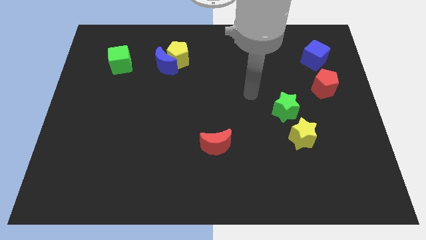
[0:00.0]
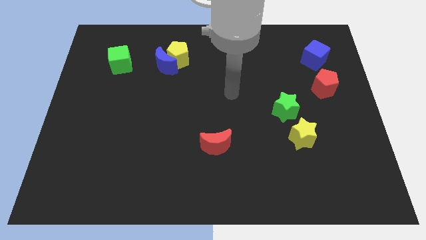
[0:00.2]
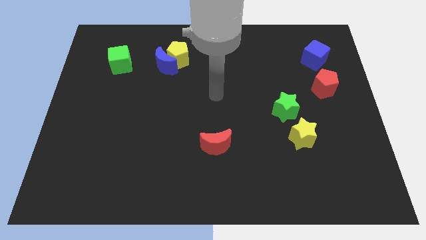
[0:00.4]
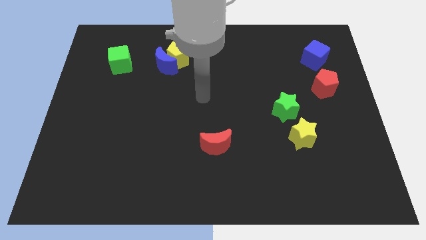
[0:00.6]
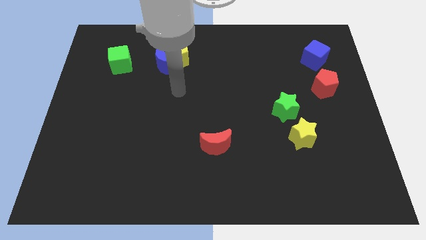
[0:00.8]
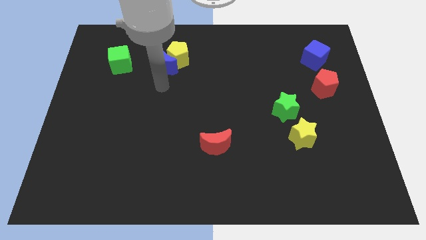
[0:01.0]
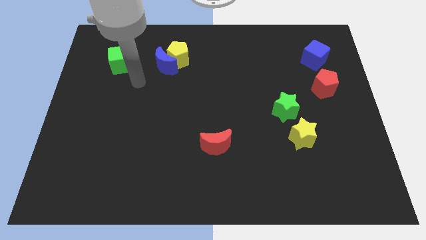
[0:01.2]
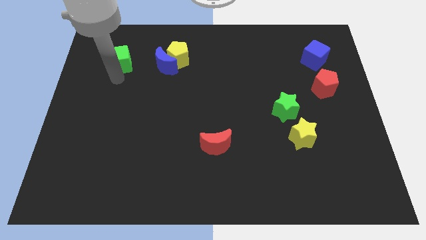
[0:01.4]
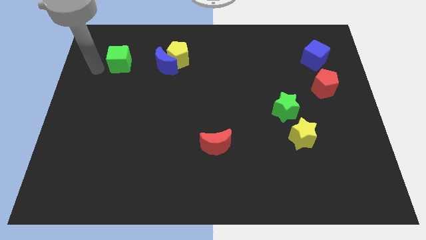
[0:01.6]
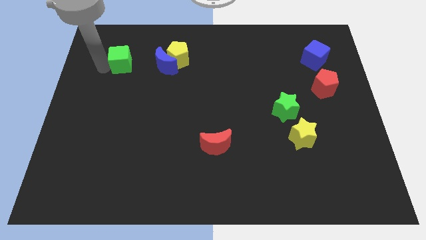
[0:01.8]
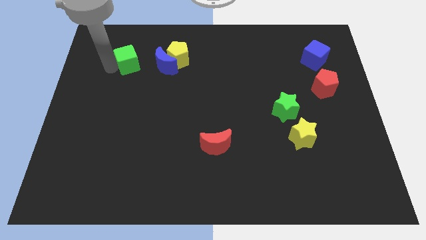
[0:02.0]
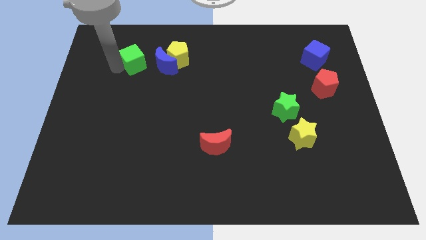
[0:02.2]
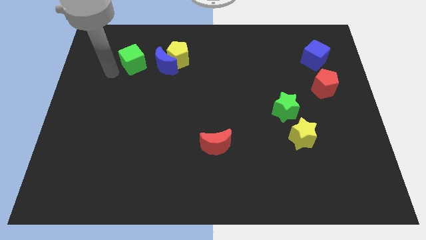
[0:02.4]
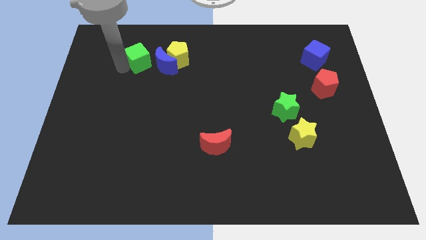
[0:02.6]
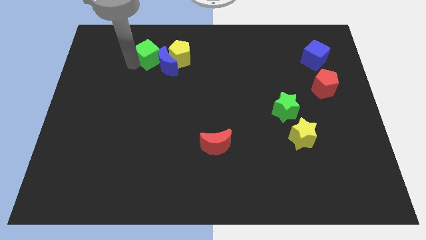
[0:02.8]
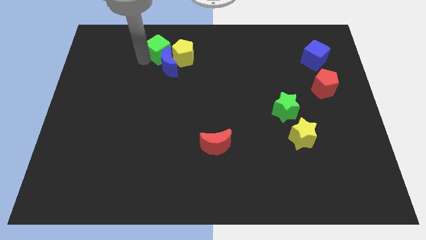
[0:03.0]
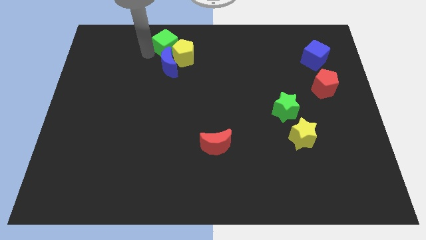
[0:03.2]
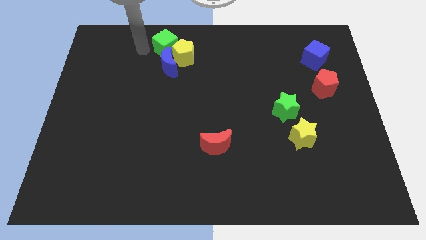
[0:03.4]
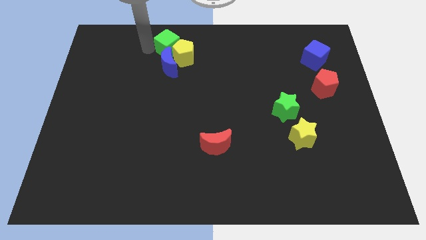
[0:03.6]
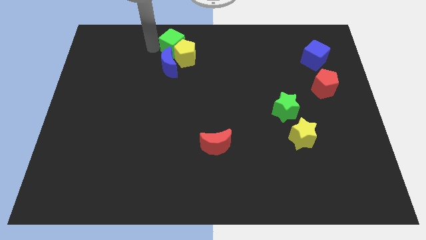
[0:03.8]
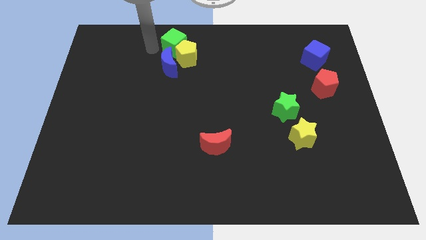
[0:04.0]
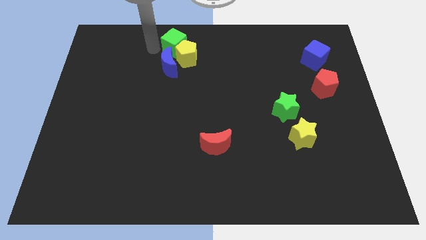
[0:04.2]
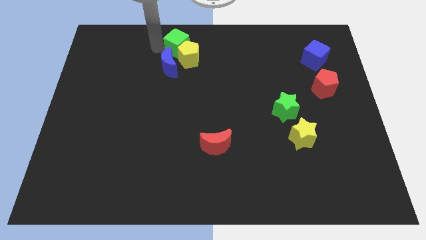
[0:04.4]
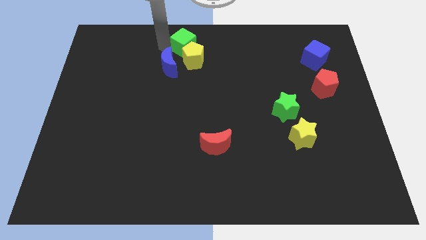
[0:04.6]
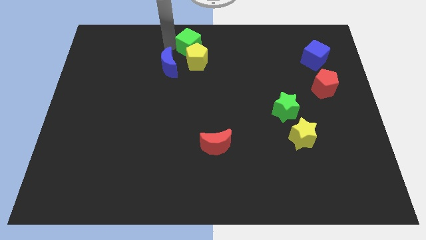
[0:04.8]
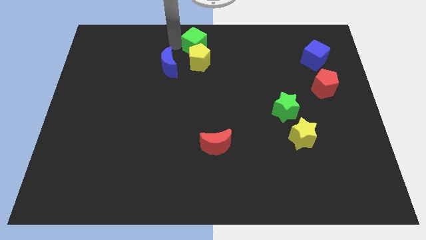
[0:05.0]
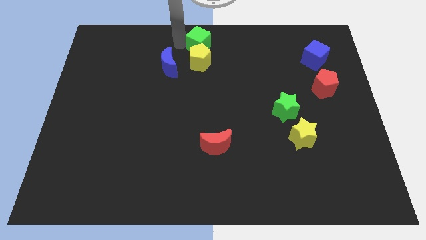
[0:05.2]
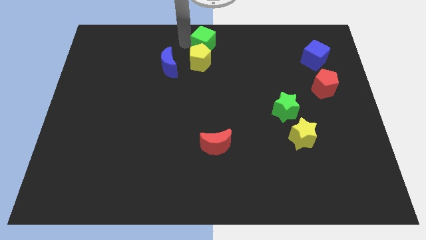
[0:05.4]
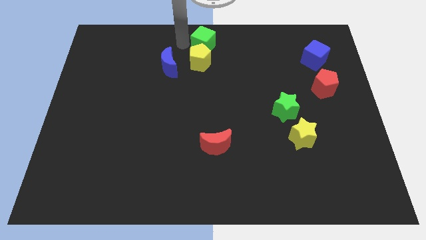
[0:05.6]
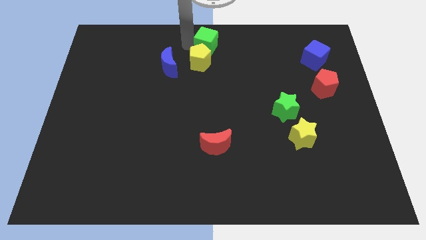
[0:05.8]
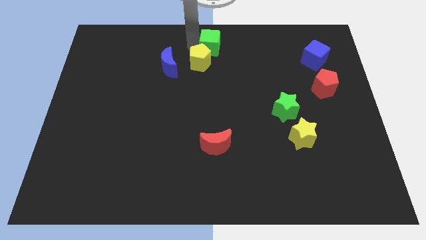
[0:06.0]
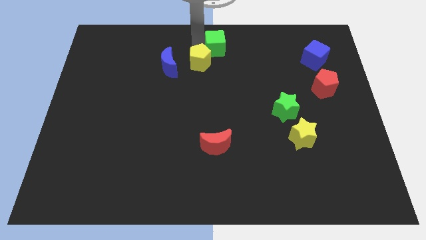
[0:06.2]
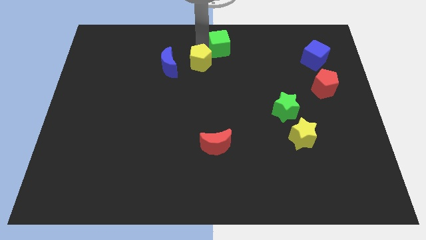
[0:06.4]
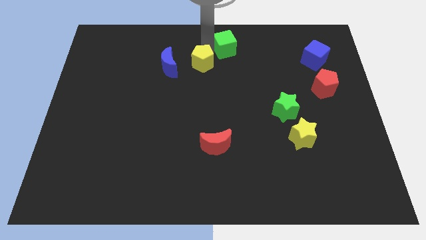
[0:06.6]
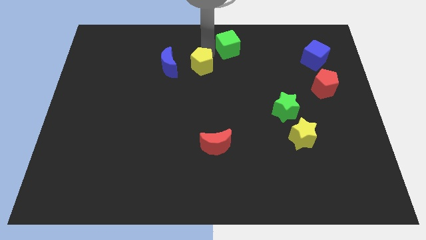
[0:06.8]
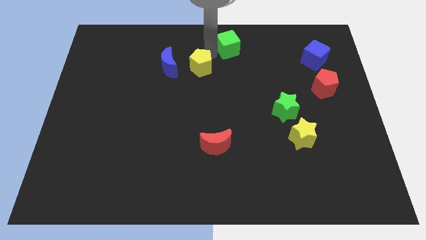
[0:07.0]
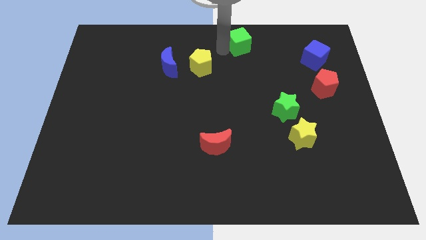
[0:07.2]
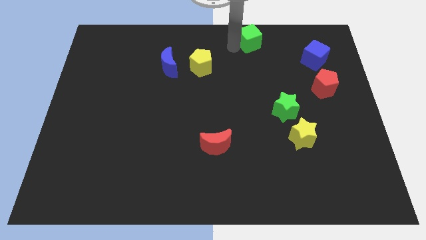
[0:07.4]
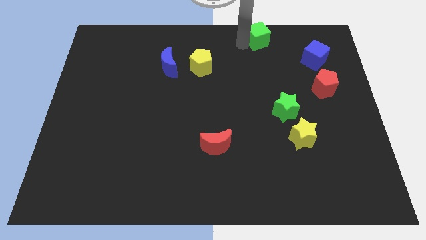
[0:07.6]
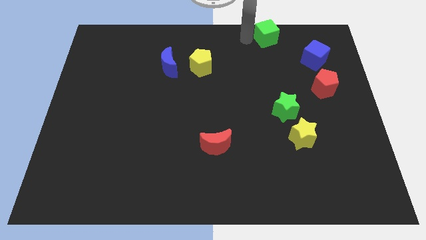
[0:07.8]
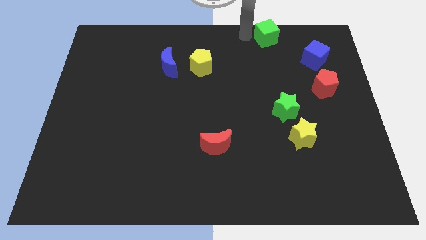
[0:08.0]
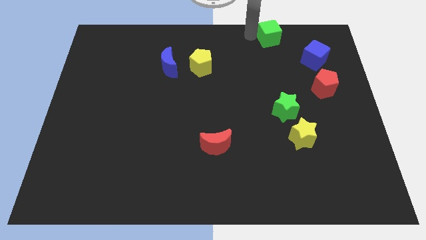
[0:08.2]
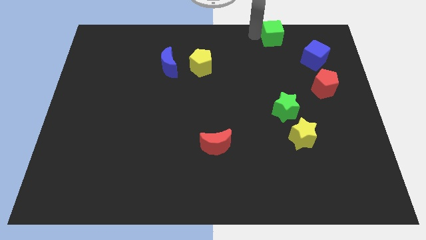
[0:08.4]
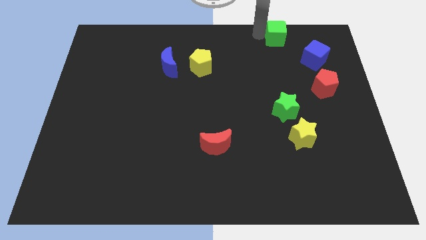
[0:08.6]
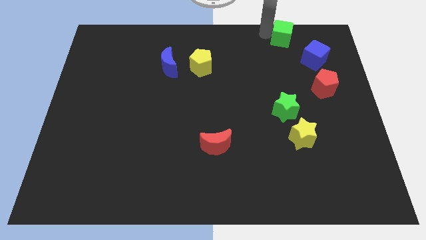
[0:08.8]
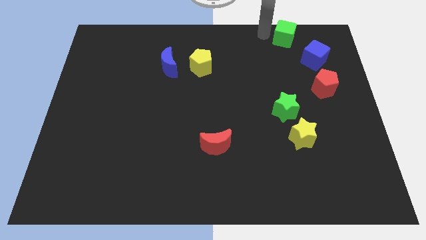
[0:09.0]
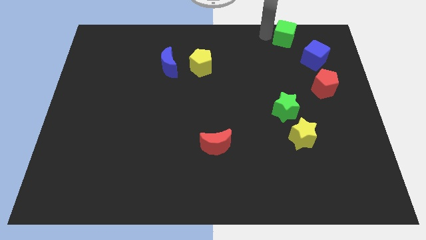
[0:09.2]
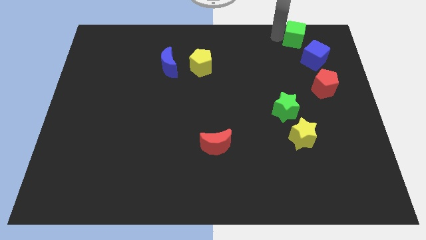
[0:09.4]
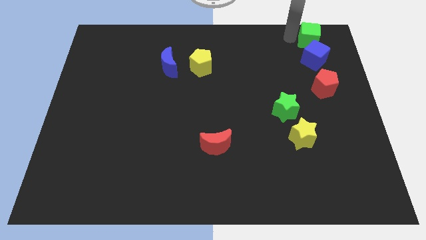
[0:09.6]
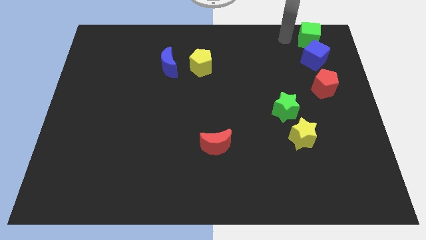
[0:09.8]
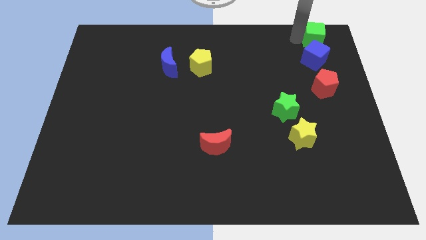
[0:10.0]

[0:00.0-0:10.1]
push the green cube to the top right corner

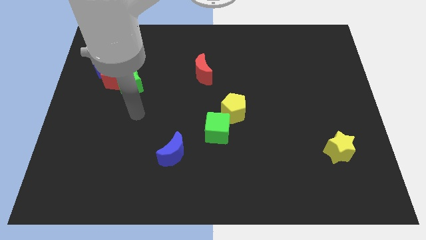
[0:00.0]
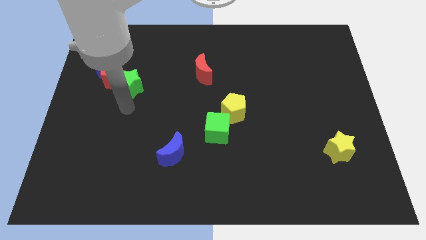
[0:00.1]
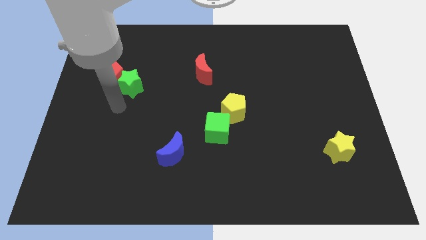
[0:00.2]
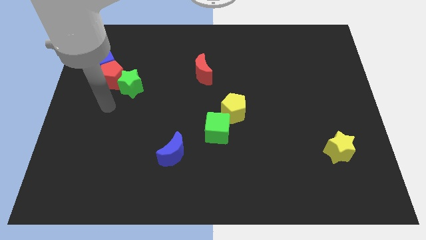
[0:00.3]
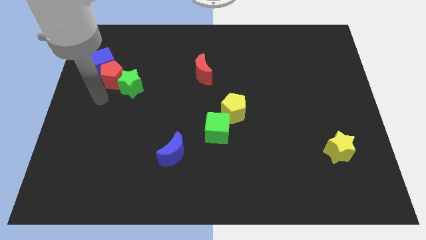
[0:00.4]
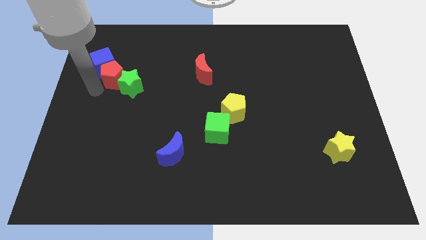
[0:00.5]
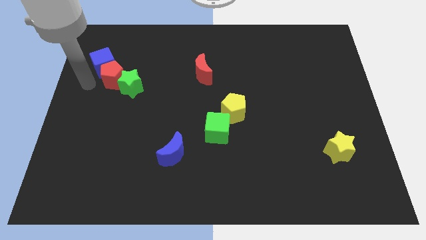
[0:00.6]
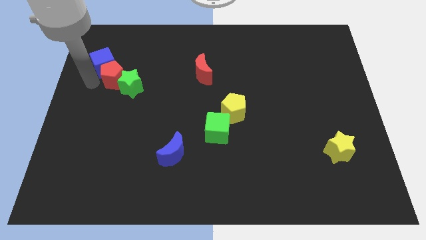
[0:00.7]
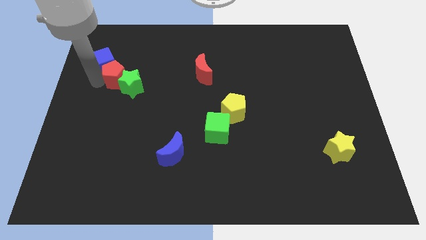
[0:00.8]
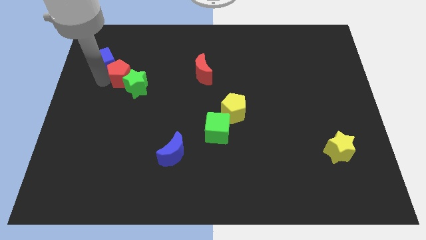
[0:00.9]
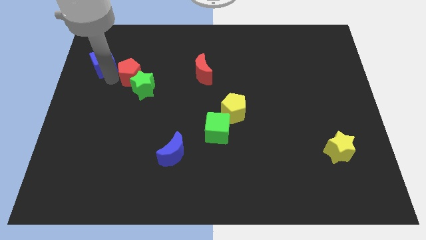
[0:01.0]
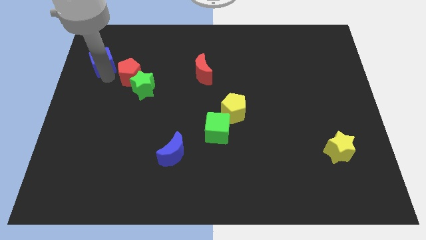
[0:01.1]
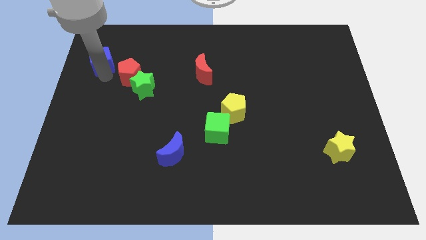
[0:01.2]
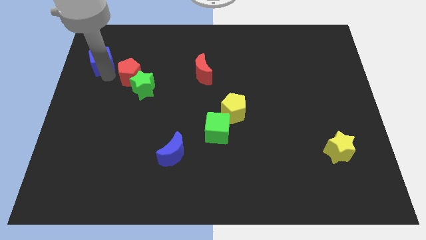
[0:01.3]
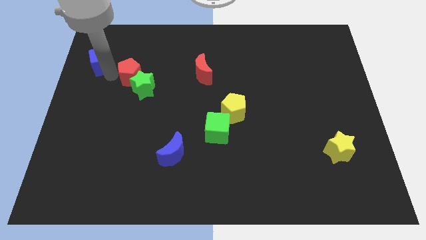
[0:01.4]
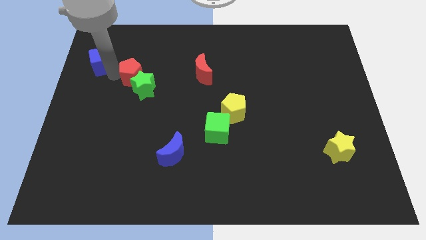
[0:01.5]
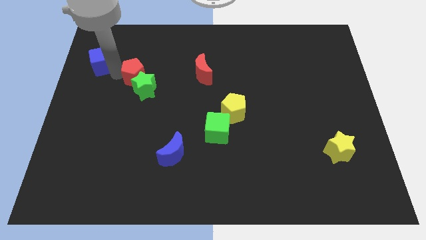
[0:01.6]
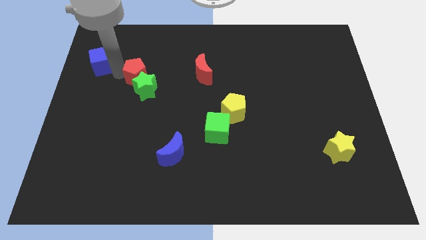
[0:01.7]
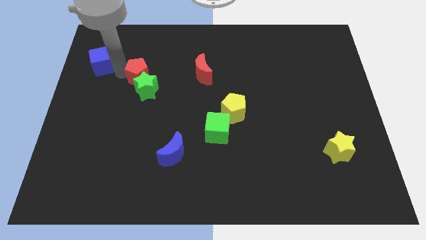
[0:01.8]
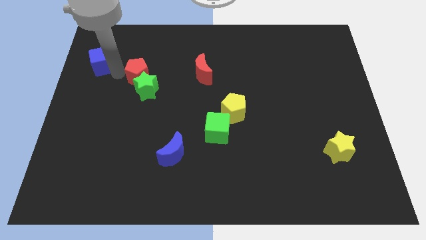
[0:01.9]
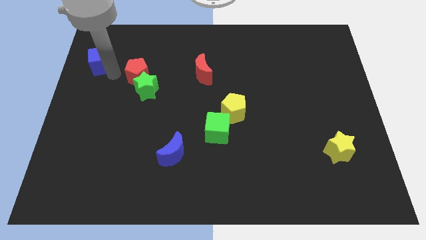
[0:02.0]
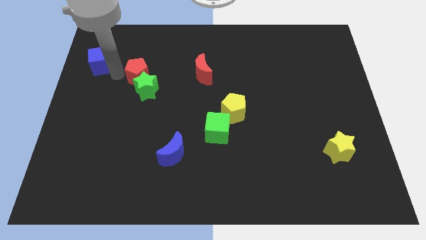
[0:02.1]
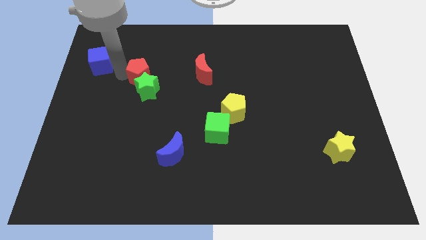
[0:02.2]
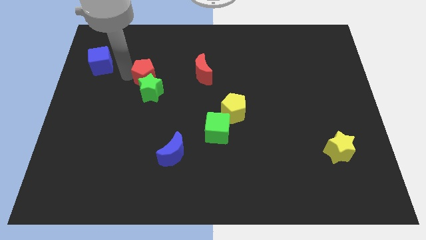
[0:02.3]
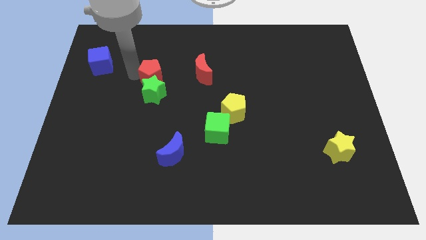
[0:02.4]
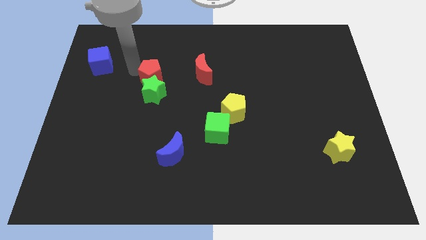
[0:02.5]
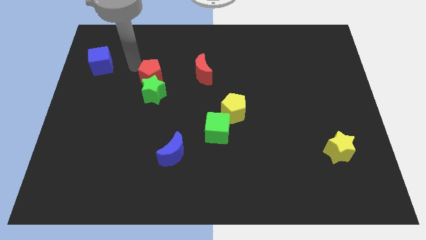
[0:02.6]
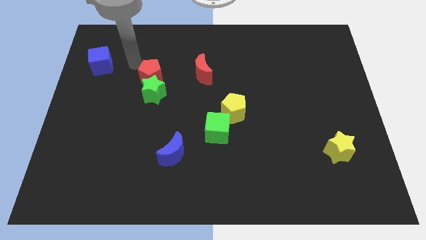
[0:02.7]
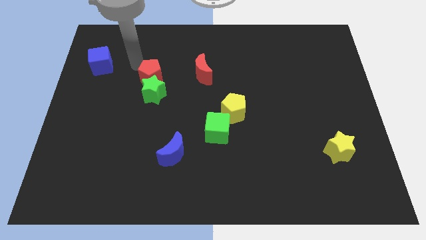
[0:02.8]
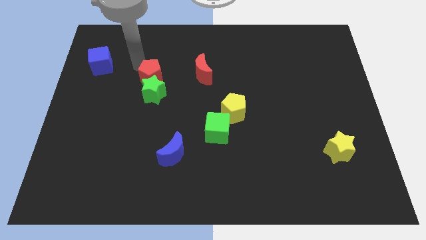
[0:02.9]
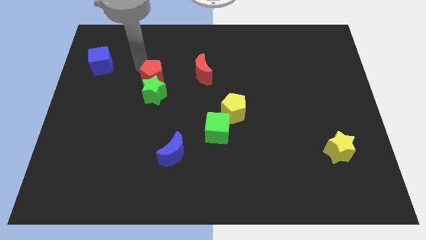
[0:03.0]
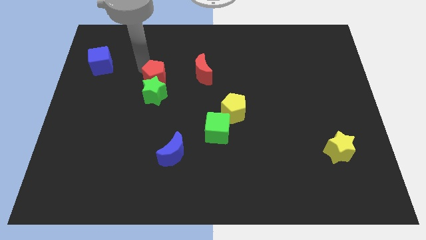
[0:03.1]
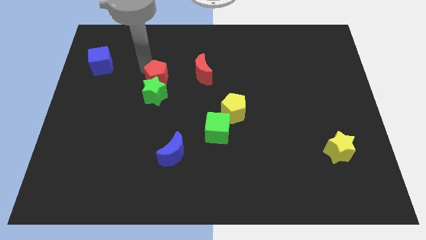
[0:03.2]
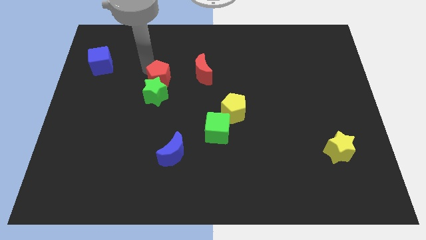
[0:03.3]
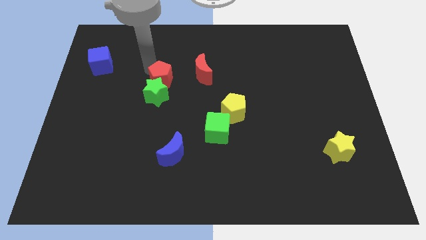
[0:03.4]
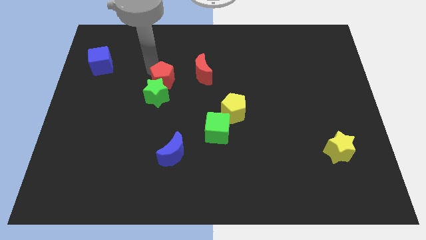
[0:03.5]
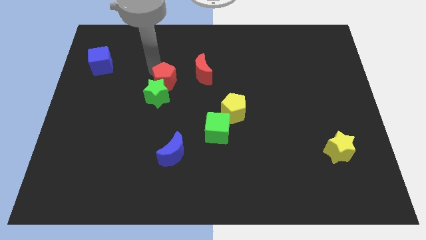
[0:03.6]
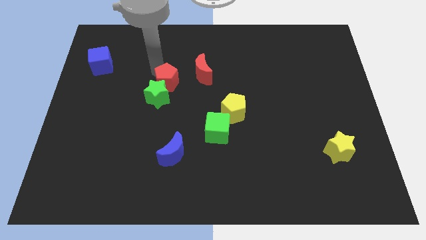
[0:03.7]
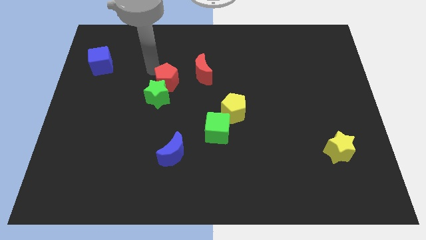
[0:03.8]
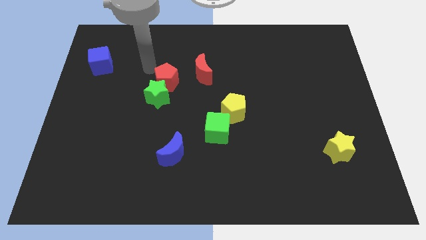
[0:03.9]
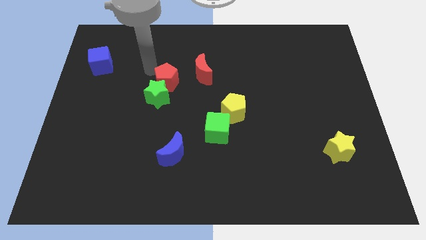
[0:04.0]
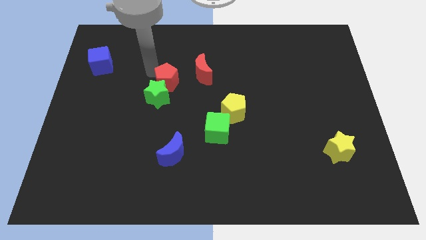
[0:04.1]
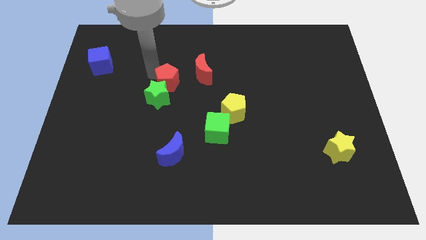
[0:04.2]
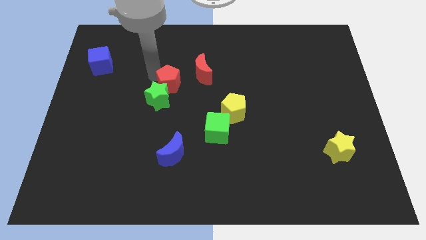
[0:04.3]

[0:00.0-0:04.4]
move the red pentagon to the middle
